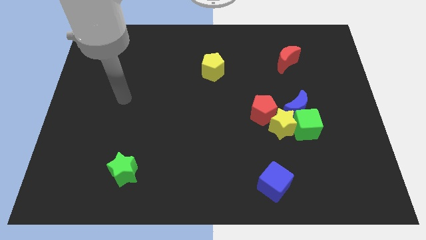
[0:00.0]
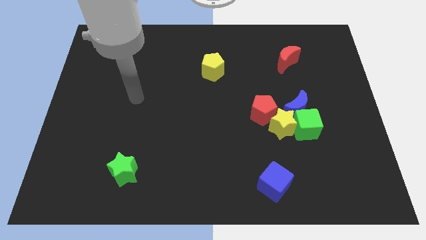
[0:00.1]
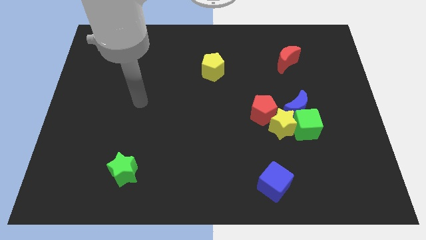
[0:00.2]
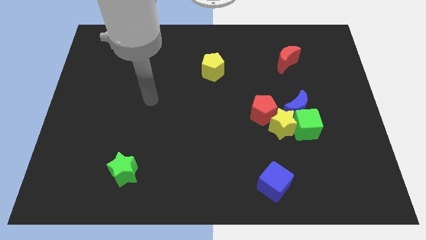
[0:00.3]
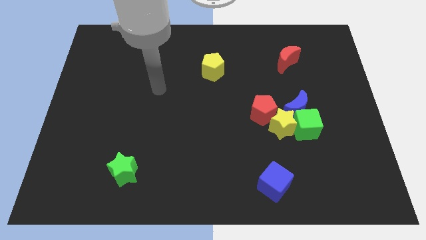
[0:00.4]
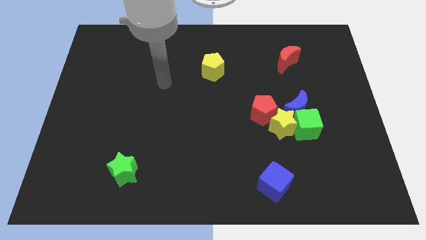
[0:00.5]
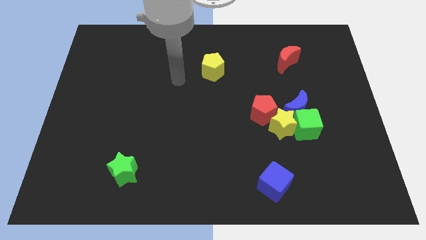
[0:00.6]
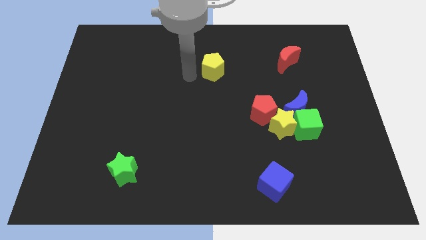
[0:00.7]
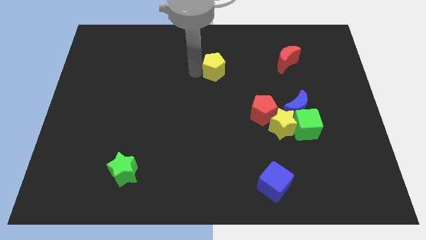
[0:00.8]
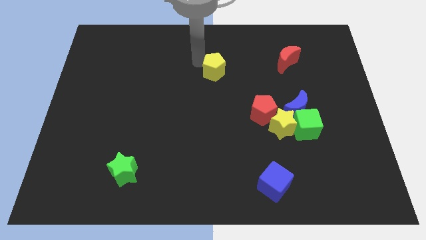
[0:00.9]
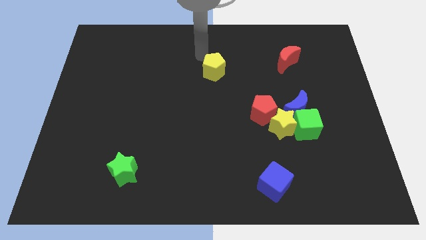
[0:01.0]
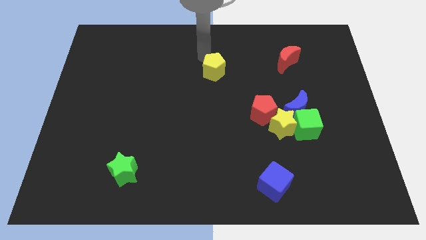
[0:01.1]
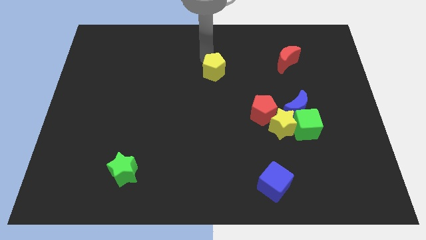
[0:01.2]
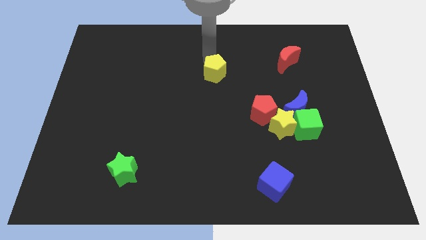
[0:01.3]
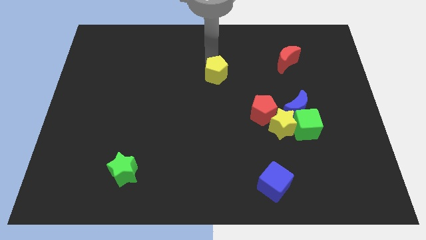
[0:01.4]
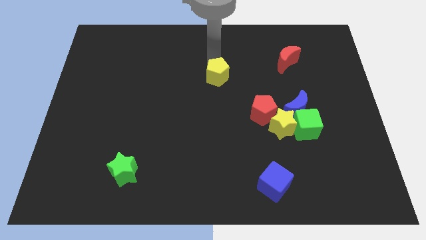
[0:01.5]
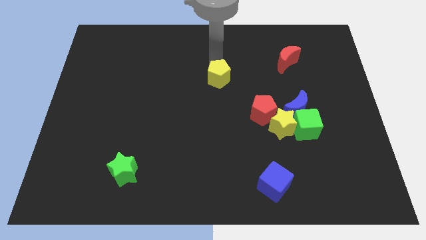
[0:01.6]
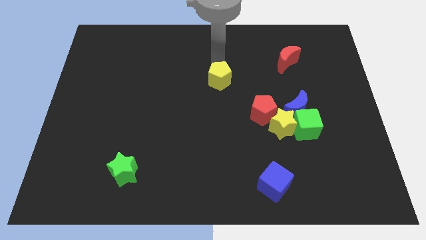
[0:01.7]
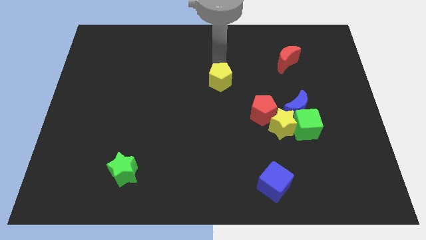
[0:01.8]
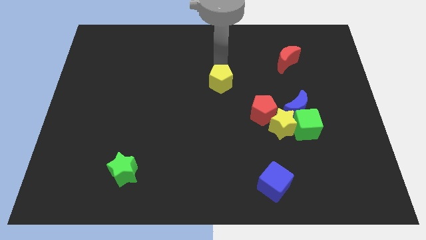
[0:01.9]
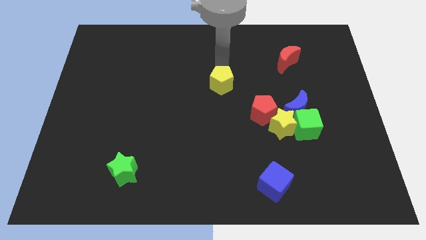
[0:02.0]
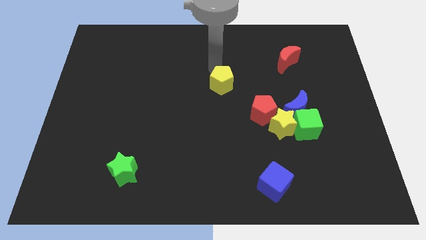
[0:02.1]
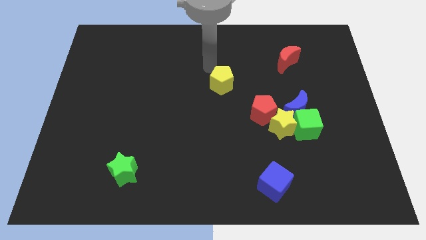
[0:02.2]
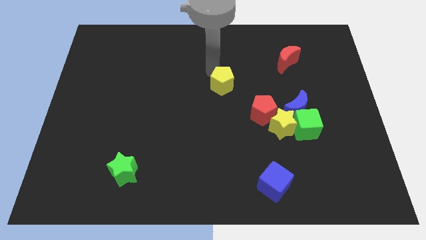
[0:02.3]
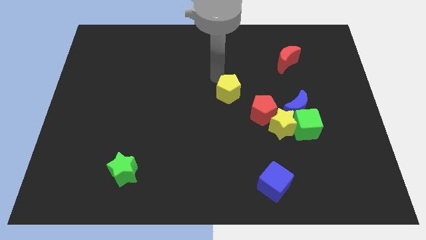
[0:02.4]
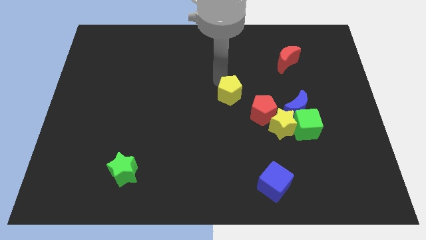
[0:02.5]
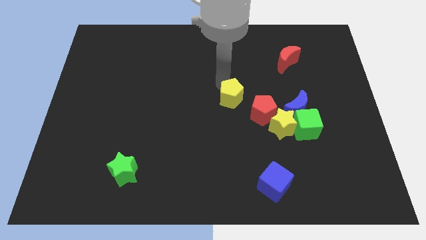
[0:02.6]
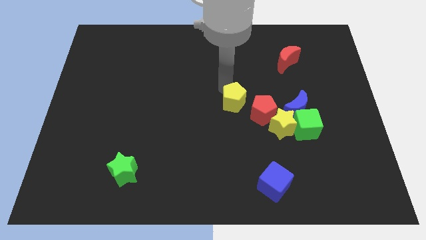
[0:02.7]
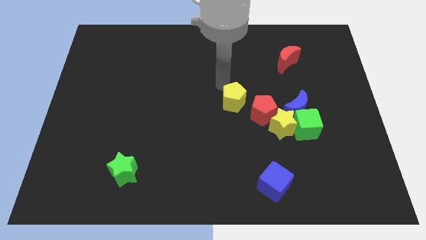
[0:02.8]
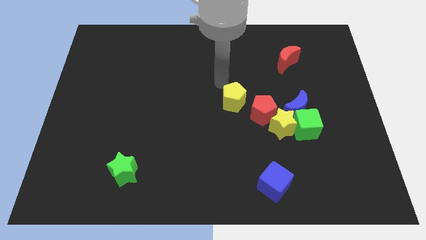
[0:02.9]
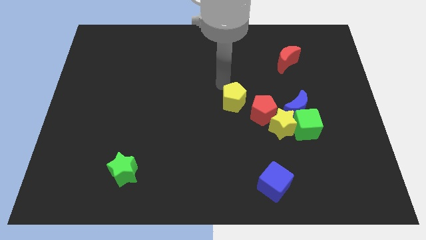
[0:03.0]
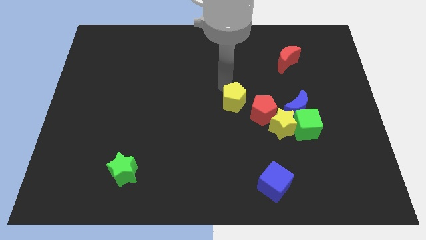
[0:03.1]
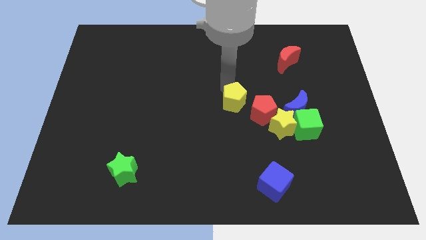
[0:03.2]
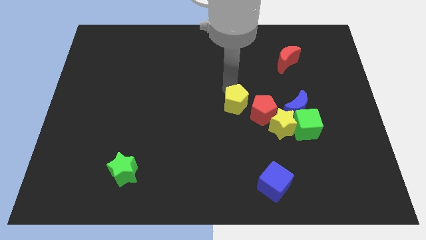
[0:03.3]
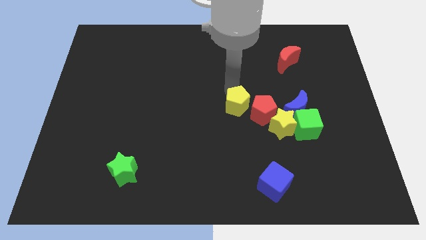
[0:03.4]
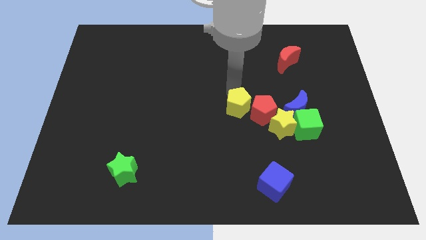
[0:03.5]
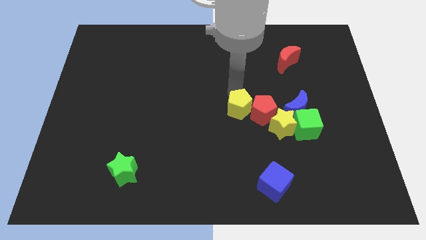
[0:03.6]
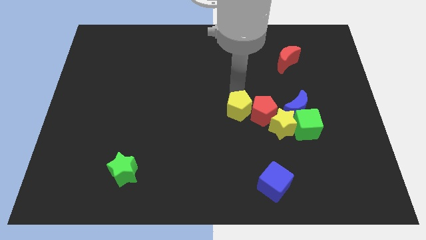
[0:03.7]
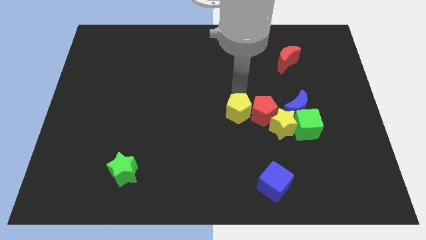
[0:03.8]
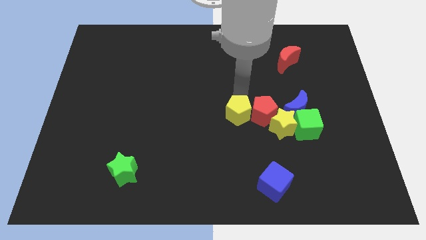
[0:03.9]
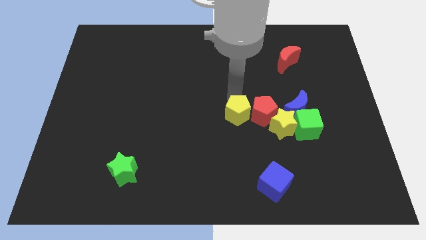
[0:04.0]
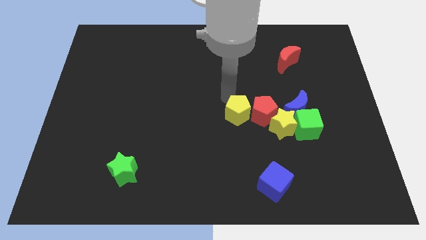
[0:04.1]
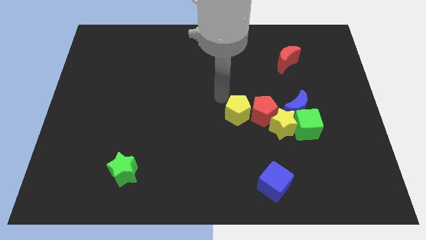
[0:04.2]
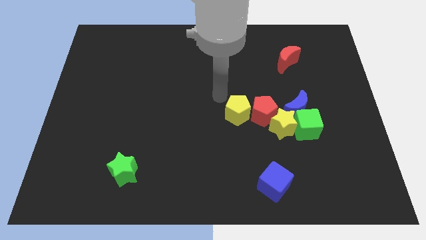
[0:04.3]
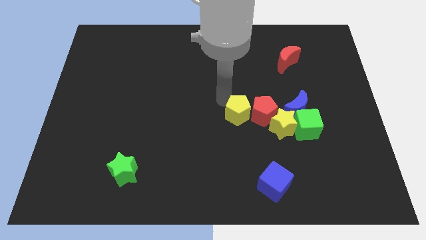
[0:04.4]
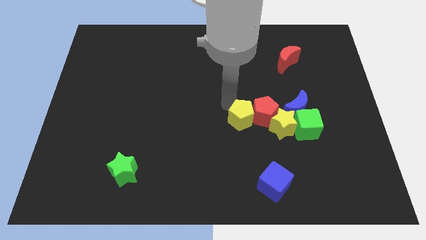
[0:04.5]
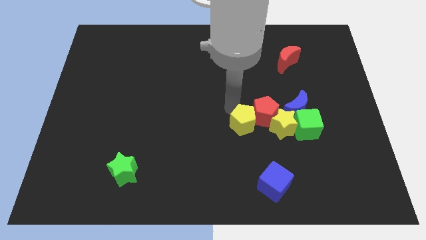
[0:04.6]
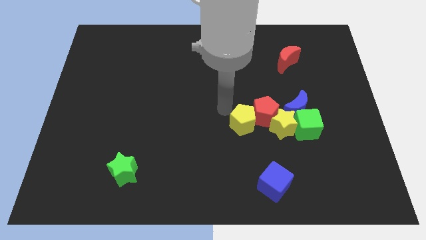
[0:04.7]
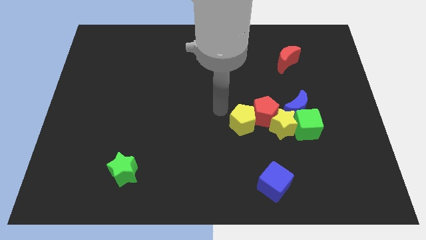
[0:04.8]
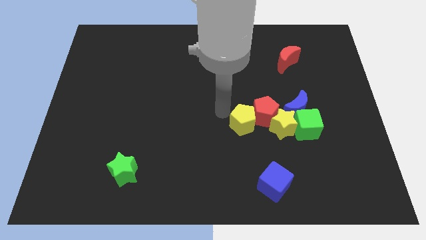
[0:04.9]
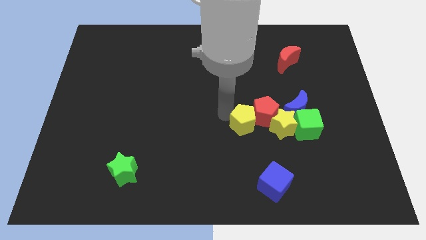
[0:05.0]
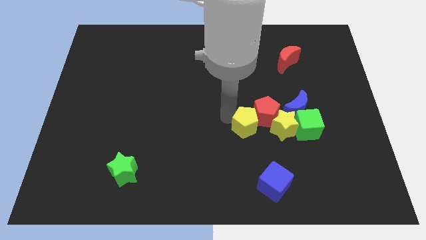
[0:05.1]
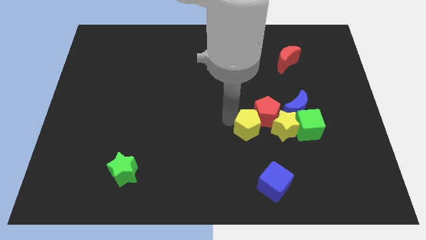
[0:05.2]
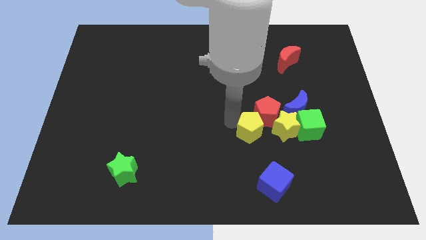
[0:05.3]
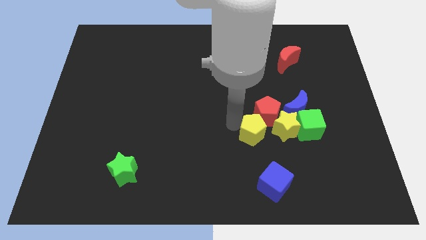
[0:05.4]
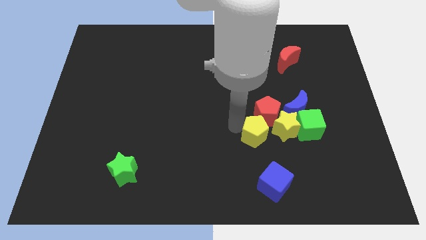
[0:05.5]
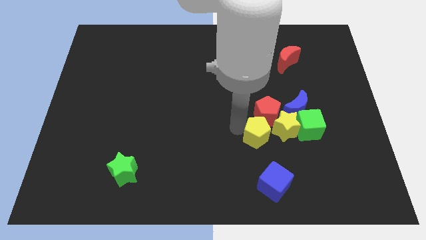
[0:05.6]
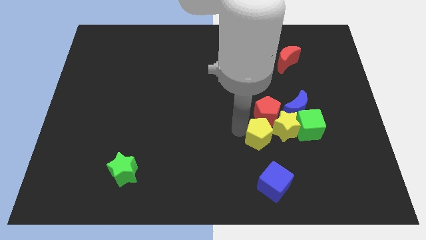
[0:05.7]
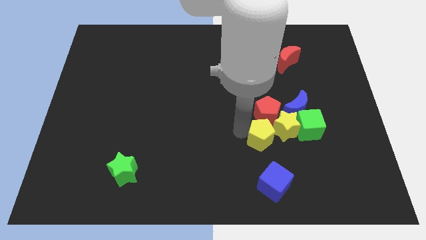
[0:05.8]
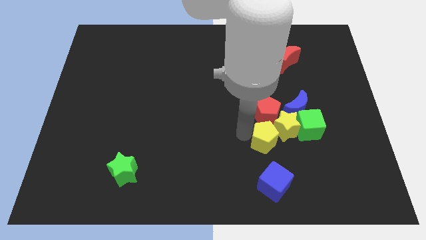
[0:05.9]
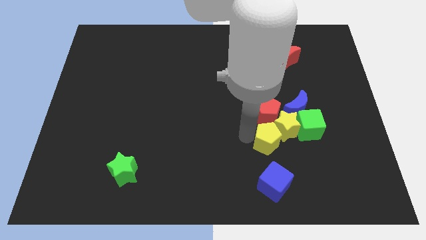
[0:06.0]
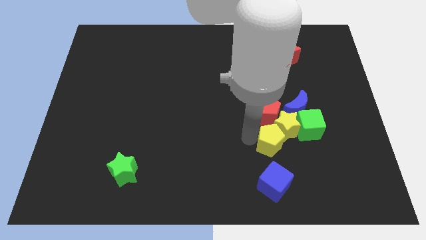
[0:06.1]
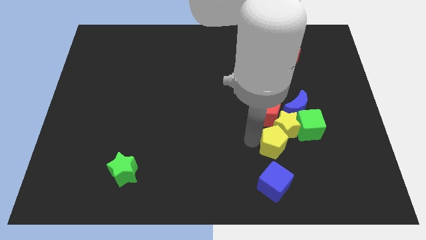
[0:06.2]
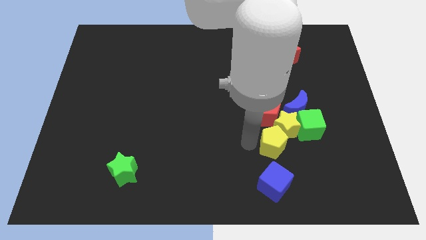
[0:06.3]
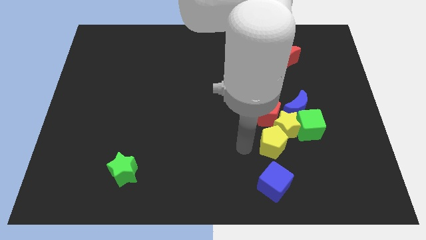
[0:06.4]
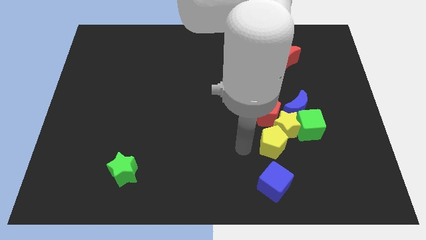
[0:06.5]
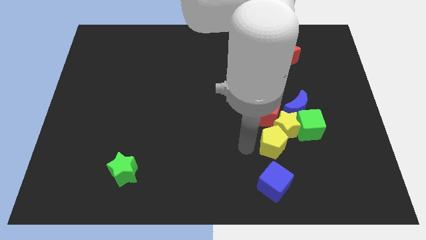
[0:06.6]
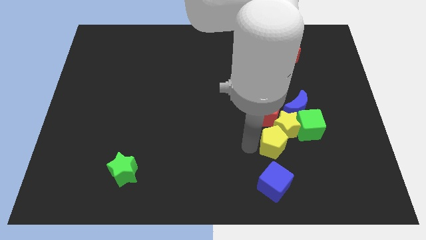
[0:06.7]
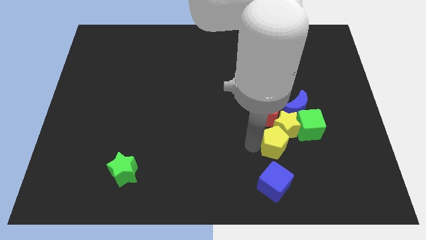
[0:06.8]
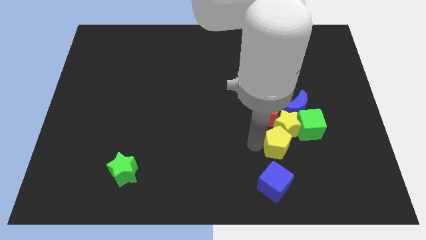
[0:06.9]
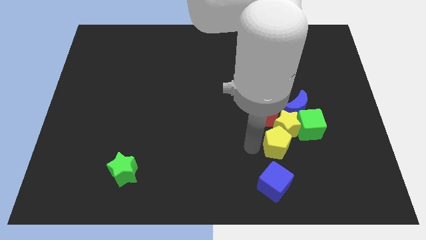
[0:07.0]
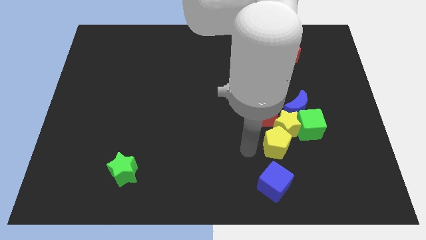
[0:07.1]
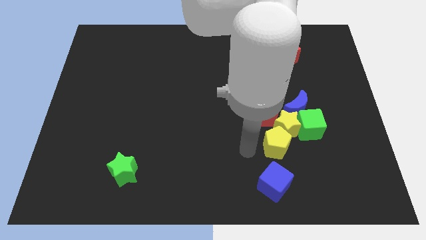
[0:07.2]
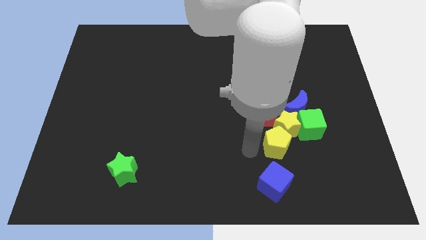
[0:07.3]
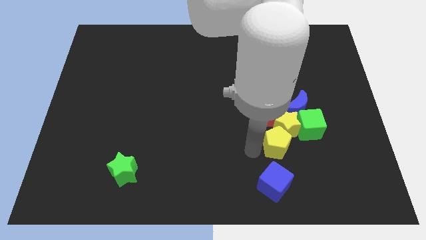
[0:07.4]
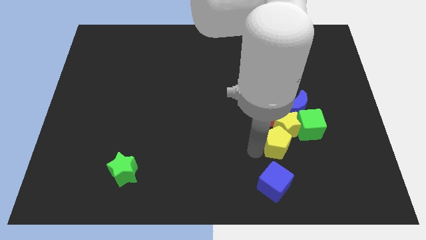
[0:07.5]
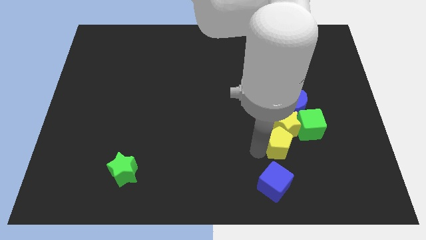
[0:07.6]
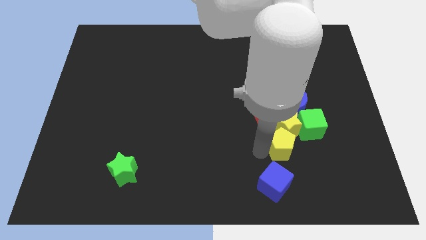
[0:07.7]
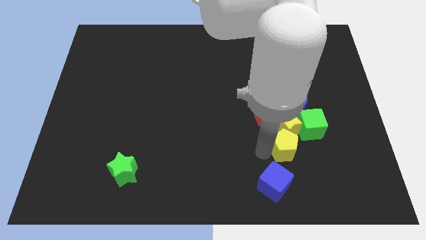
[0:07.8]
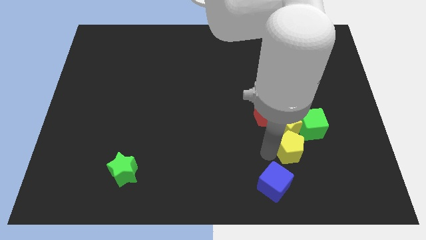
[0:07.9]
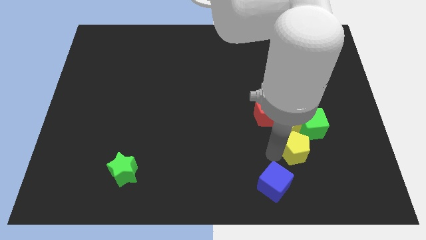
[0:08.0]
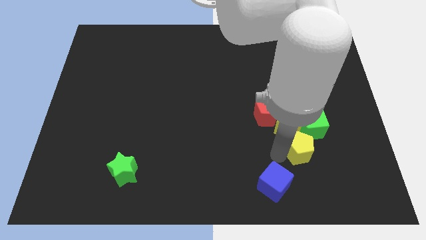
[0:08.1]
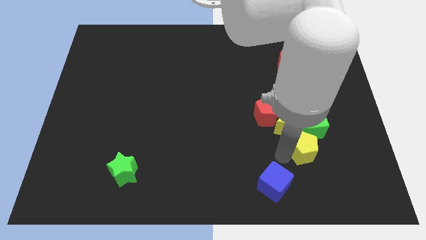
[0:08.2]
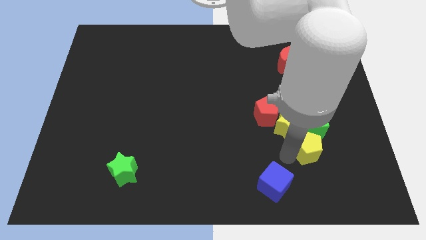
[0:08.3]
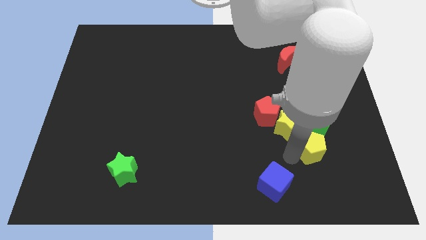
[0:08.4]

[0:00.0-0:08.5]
put the yellow pentagon to the bottom right side of the green cube

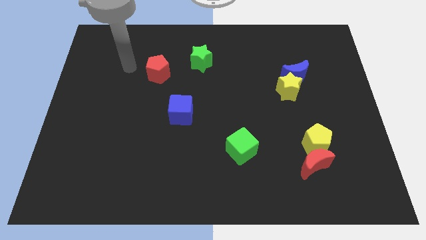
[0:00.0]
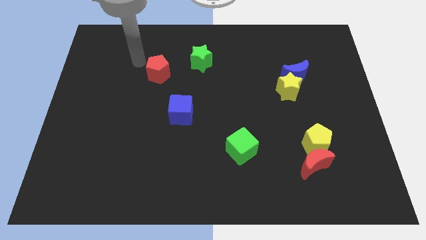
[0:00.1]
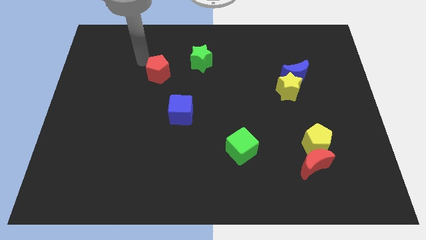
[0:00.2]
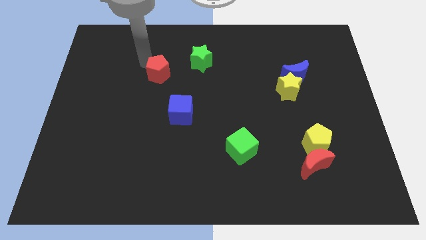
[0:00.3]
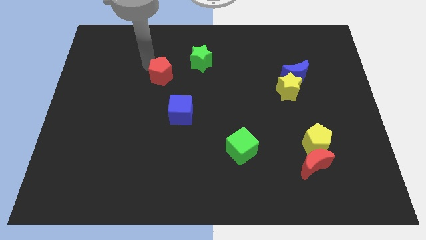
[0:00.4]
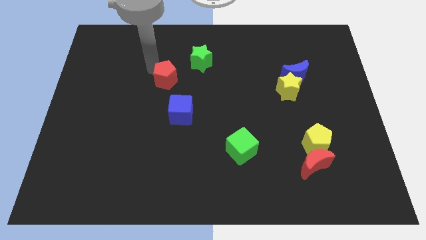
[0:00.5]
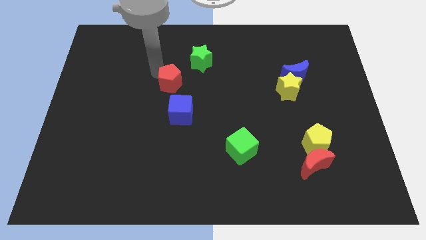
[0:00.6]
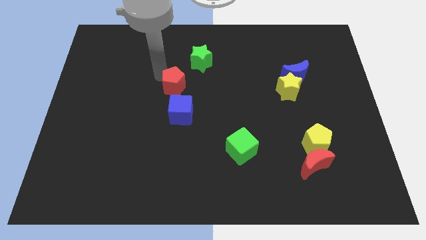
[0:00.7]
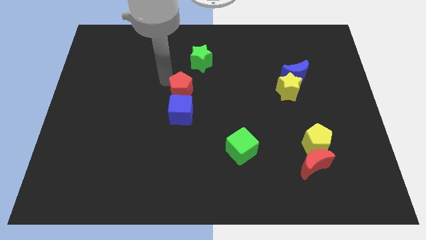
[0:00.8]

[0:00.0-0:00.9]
put the red pentagon to the top right side of the blue cube
